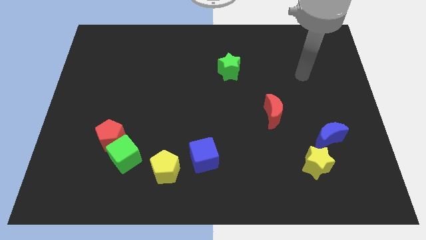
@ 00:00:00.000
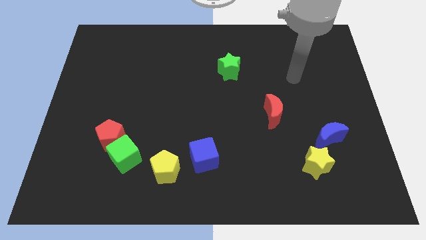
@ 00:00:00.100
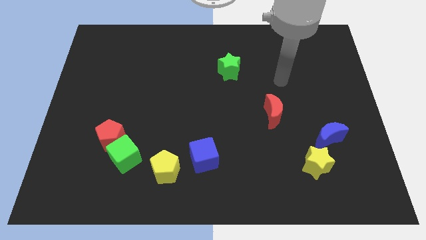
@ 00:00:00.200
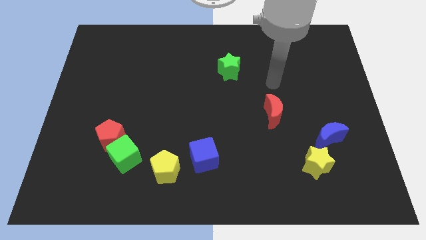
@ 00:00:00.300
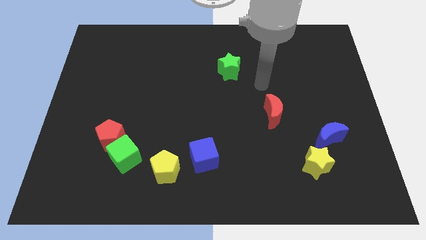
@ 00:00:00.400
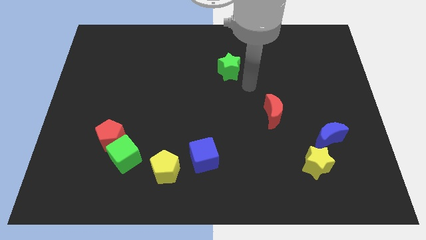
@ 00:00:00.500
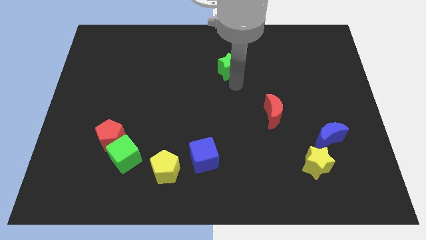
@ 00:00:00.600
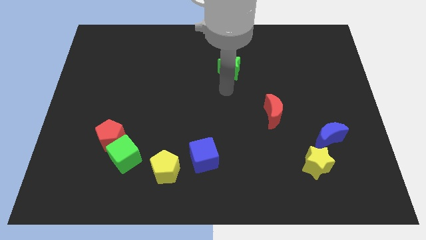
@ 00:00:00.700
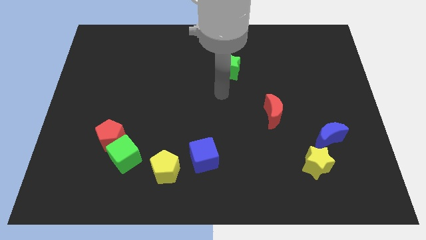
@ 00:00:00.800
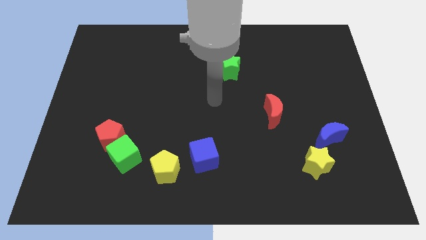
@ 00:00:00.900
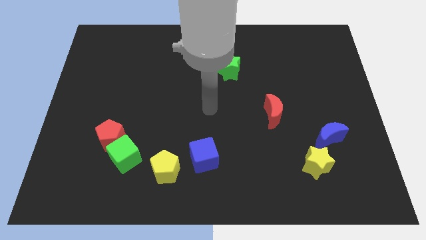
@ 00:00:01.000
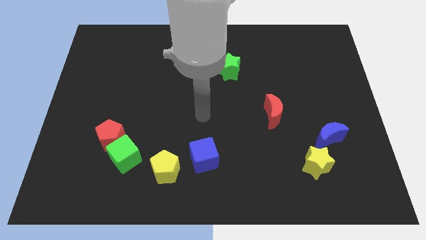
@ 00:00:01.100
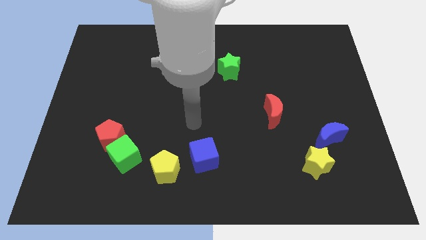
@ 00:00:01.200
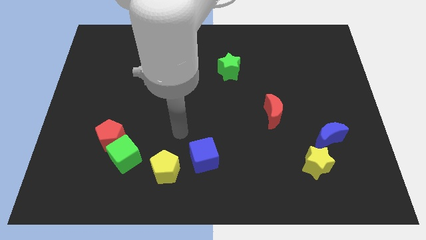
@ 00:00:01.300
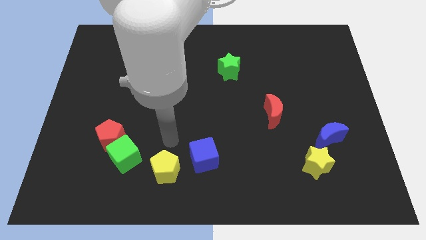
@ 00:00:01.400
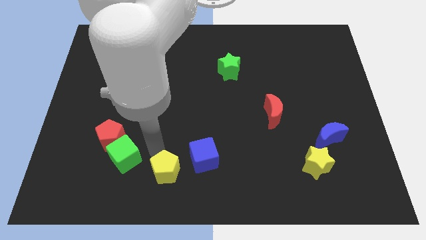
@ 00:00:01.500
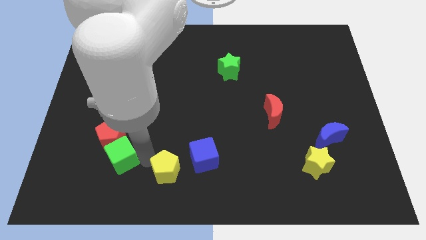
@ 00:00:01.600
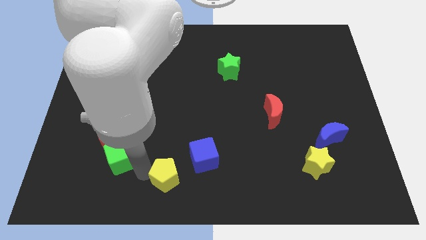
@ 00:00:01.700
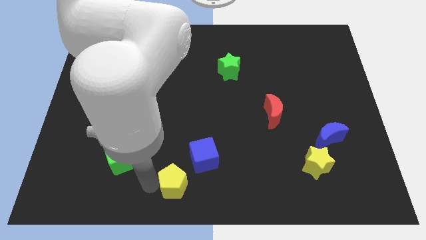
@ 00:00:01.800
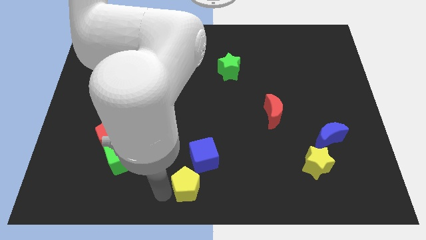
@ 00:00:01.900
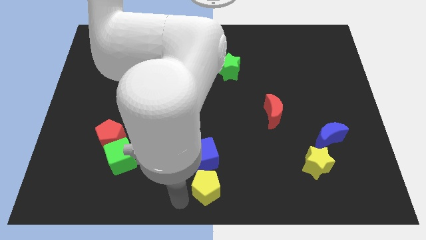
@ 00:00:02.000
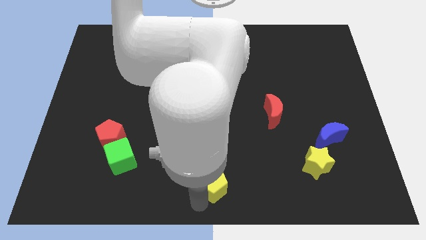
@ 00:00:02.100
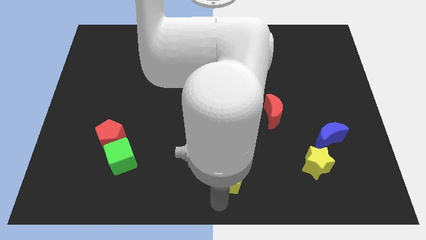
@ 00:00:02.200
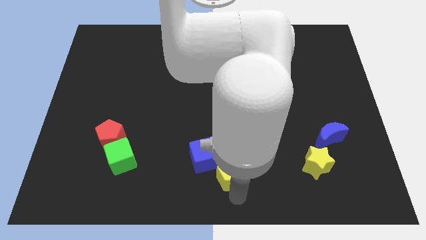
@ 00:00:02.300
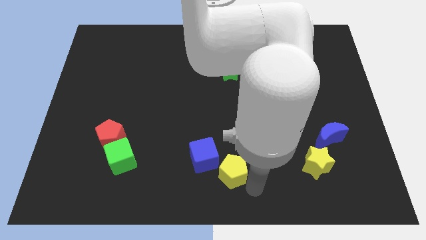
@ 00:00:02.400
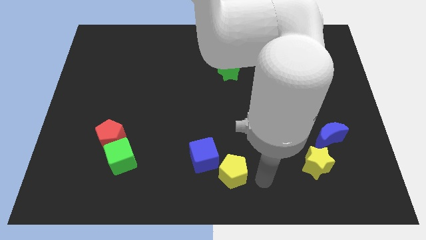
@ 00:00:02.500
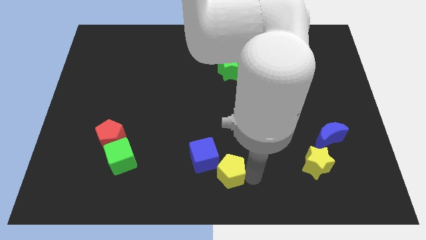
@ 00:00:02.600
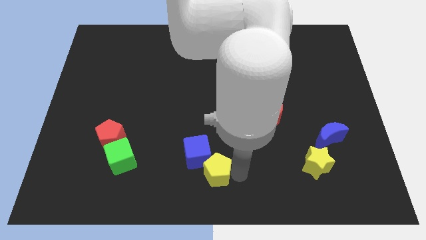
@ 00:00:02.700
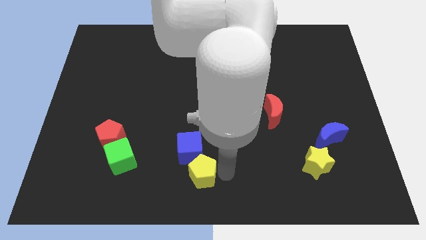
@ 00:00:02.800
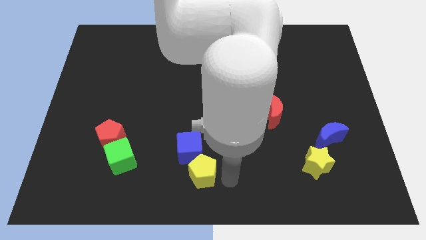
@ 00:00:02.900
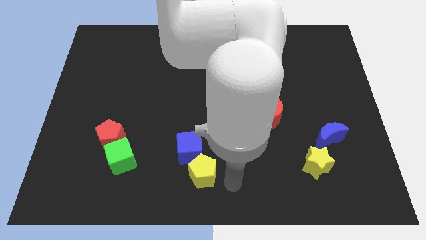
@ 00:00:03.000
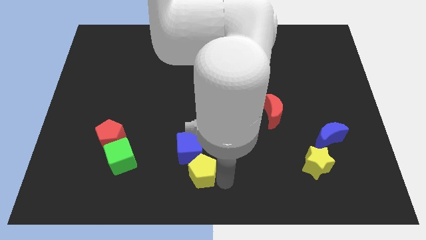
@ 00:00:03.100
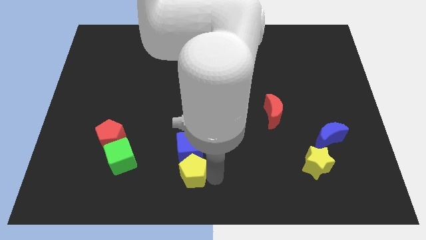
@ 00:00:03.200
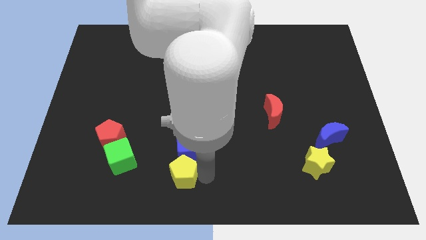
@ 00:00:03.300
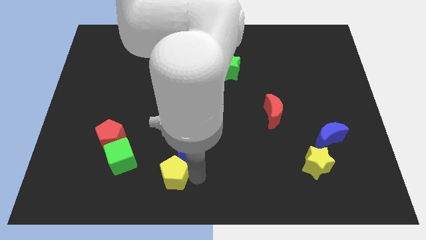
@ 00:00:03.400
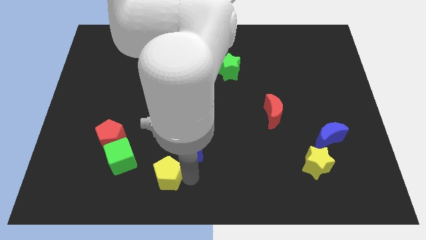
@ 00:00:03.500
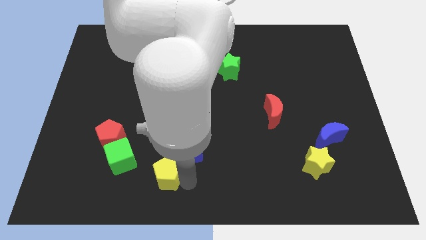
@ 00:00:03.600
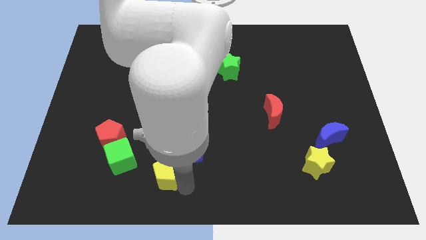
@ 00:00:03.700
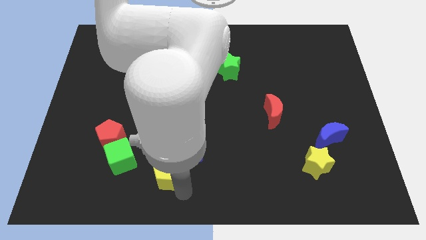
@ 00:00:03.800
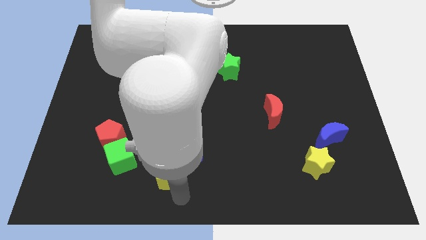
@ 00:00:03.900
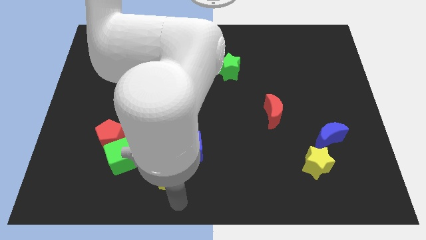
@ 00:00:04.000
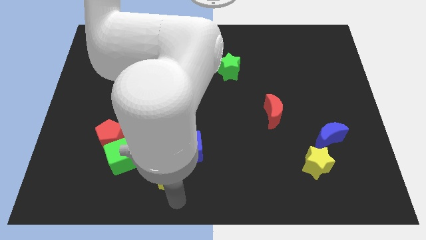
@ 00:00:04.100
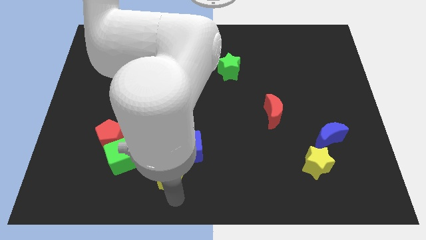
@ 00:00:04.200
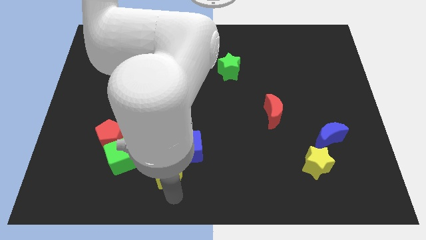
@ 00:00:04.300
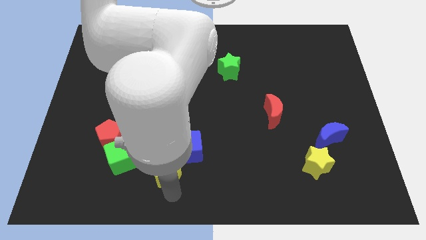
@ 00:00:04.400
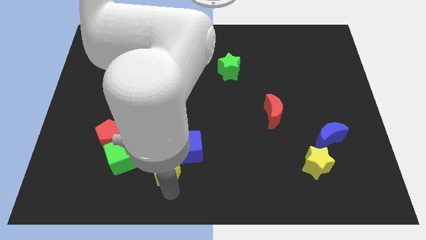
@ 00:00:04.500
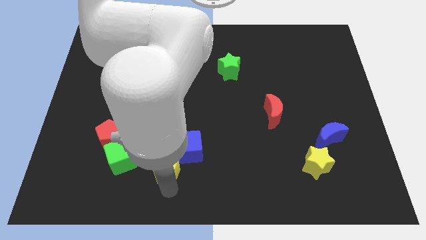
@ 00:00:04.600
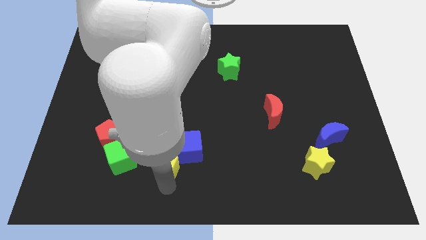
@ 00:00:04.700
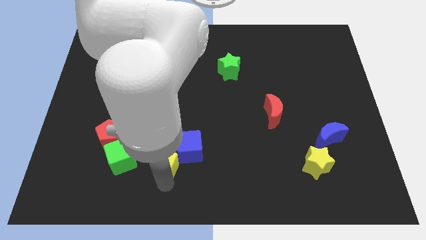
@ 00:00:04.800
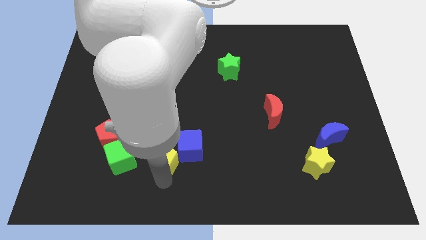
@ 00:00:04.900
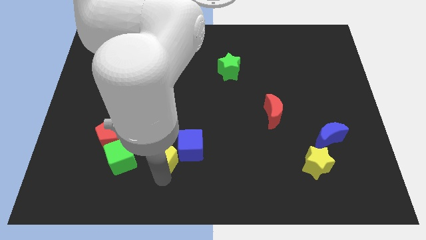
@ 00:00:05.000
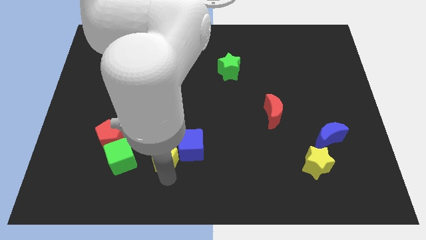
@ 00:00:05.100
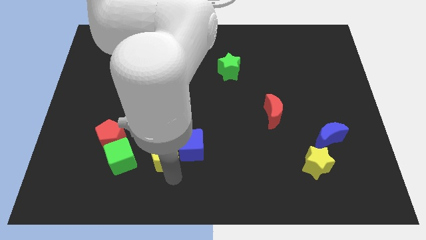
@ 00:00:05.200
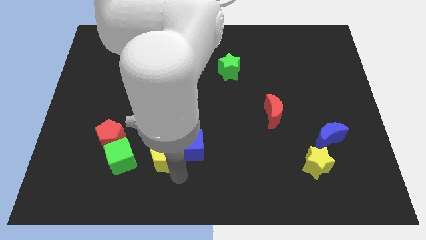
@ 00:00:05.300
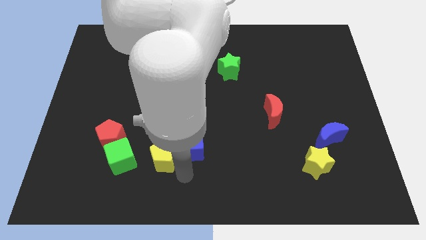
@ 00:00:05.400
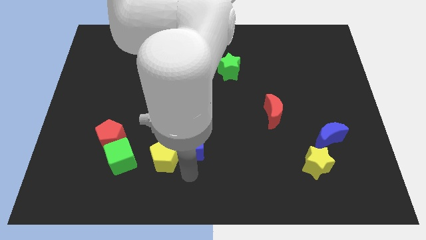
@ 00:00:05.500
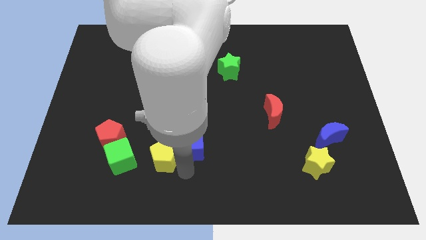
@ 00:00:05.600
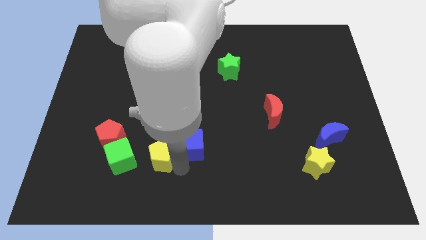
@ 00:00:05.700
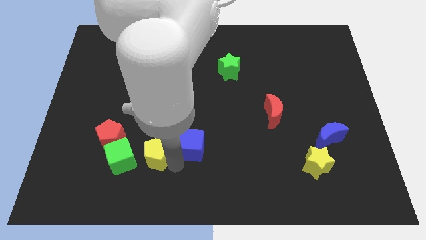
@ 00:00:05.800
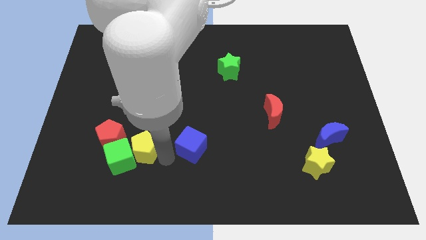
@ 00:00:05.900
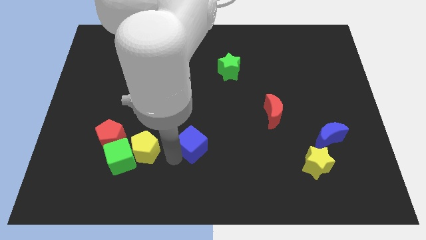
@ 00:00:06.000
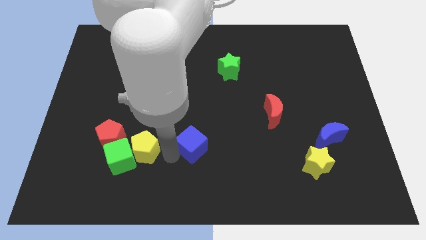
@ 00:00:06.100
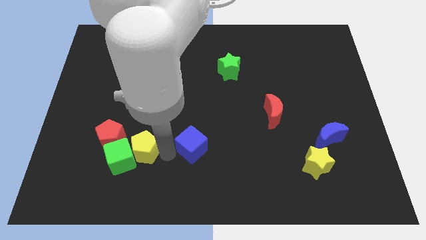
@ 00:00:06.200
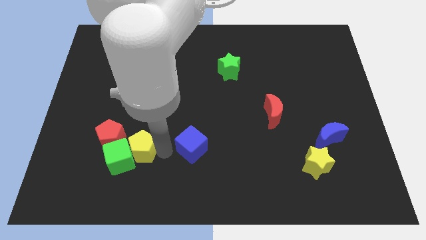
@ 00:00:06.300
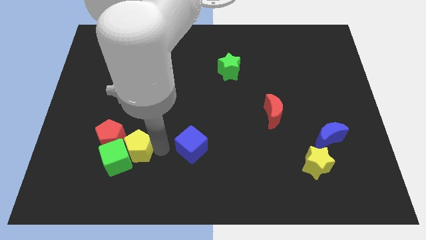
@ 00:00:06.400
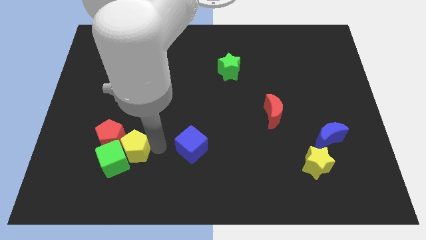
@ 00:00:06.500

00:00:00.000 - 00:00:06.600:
slide the yellow pentagon towards the red pentagon
